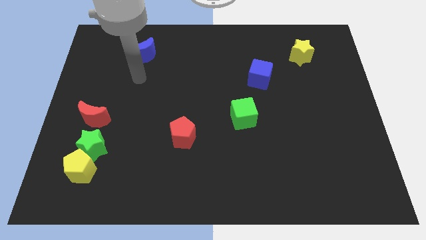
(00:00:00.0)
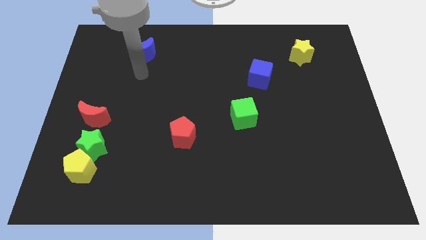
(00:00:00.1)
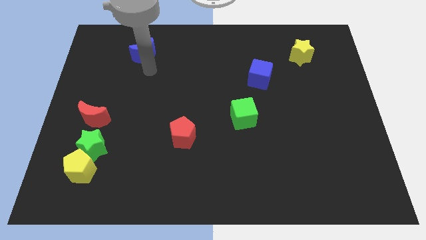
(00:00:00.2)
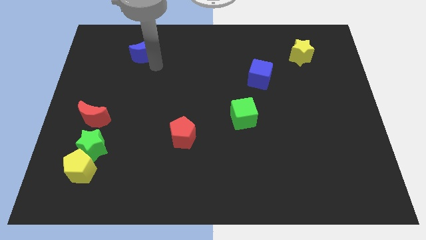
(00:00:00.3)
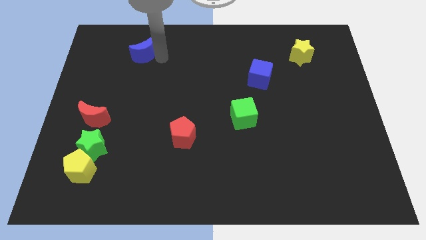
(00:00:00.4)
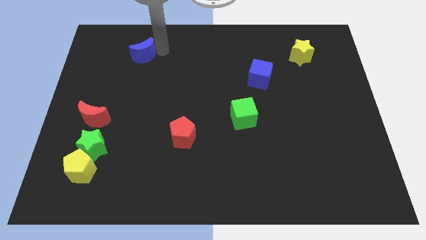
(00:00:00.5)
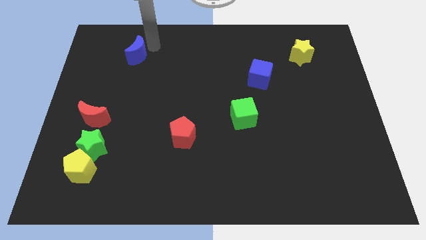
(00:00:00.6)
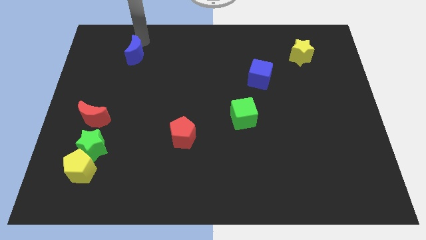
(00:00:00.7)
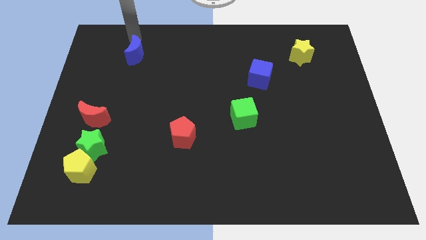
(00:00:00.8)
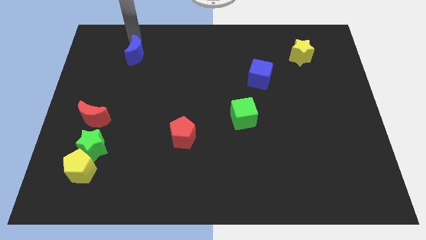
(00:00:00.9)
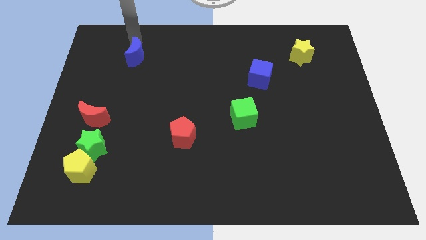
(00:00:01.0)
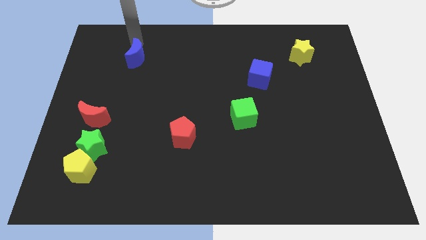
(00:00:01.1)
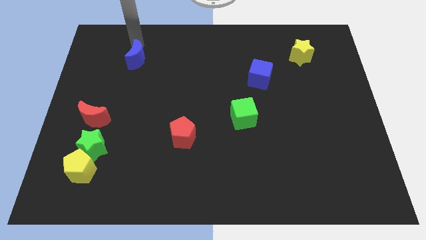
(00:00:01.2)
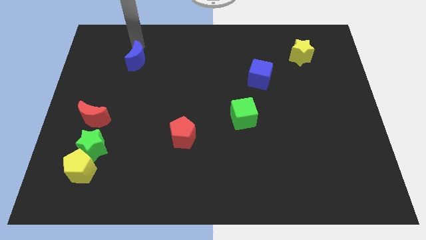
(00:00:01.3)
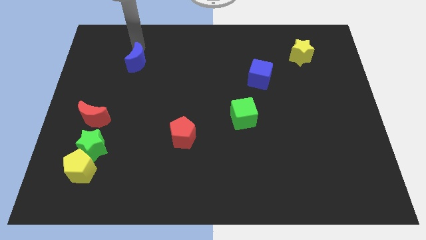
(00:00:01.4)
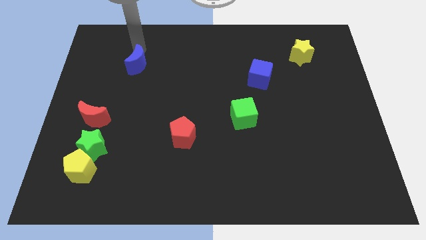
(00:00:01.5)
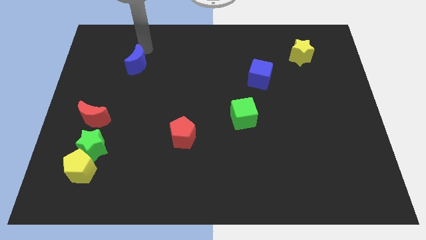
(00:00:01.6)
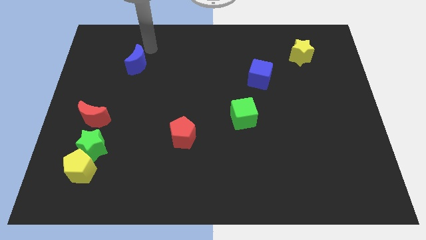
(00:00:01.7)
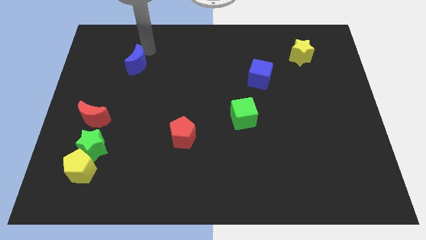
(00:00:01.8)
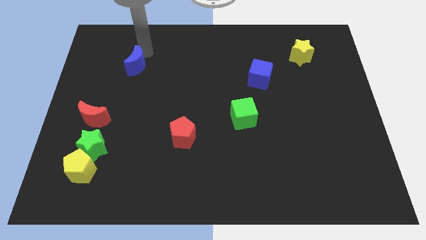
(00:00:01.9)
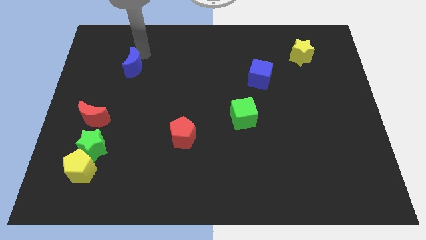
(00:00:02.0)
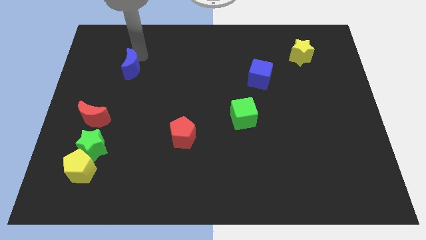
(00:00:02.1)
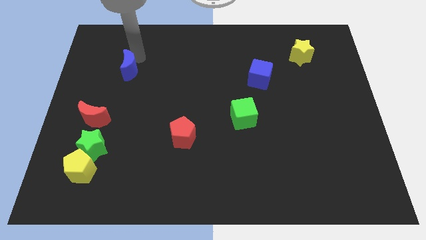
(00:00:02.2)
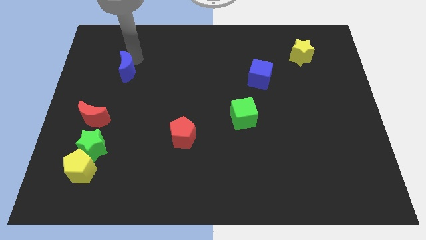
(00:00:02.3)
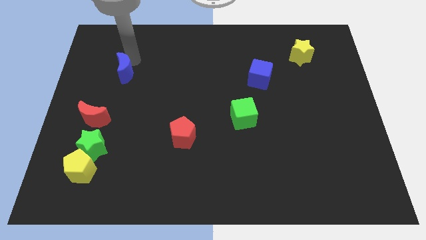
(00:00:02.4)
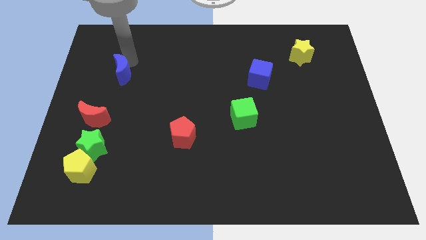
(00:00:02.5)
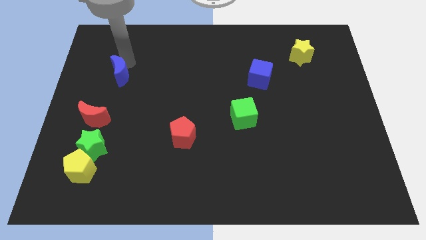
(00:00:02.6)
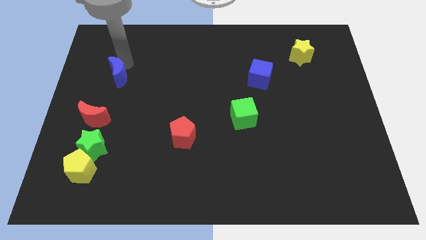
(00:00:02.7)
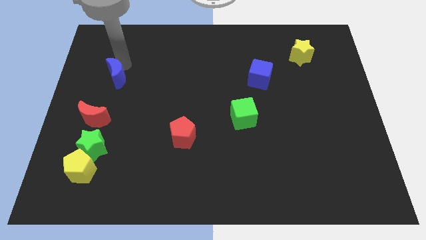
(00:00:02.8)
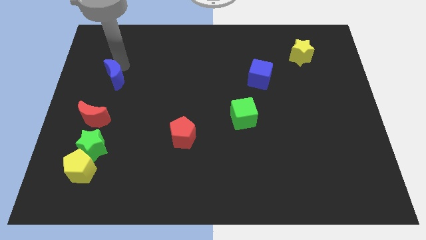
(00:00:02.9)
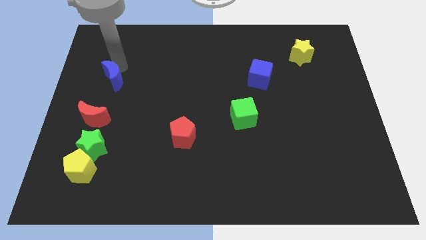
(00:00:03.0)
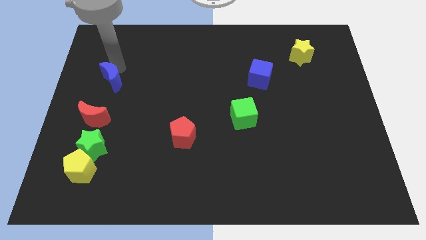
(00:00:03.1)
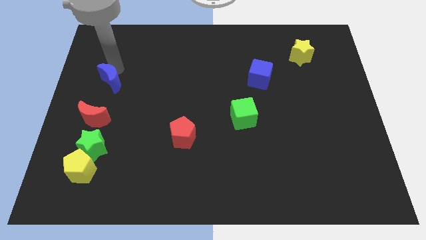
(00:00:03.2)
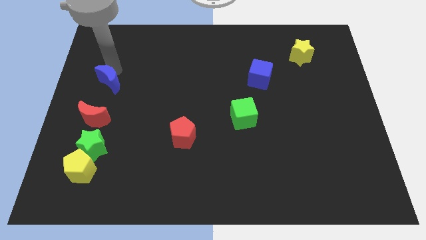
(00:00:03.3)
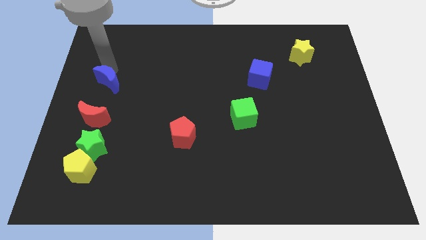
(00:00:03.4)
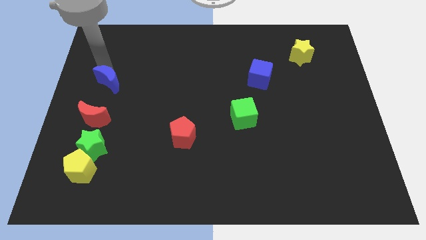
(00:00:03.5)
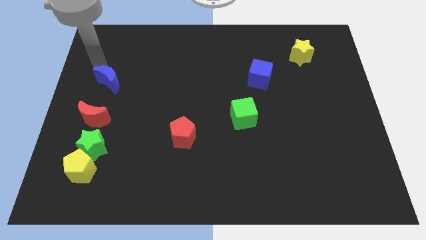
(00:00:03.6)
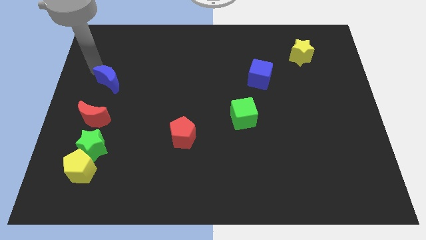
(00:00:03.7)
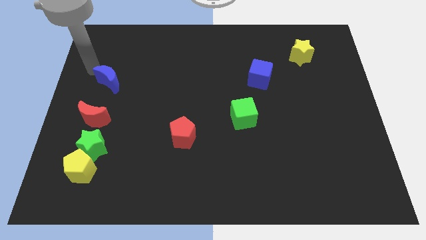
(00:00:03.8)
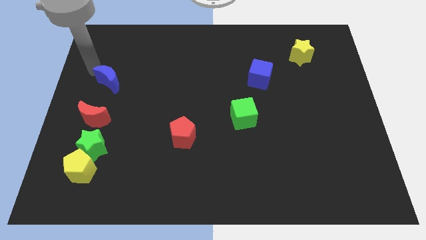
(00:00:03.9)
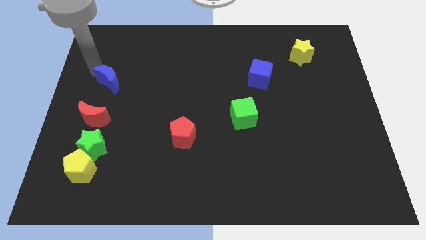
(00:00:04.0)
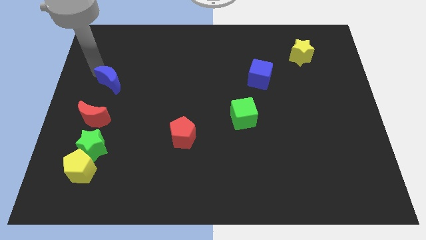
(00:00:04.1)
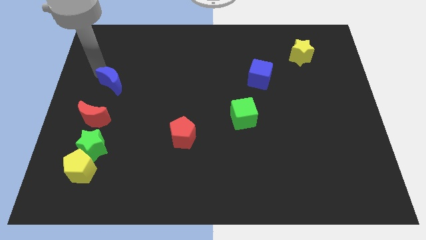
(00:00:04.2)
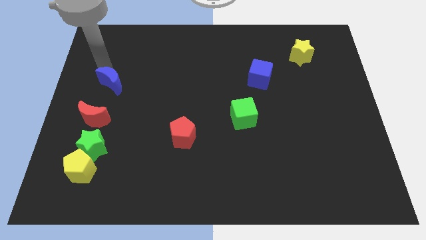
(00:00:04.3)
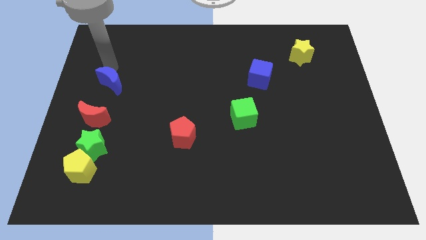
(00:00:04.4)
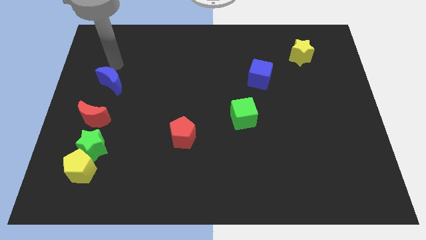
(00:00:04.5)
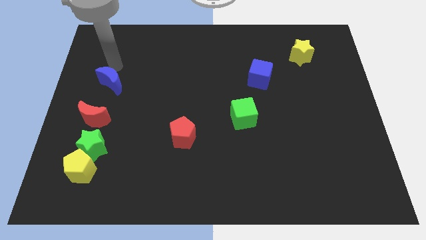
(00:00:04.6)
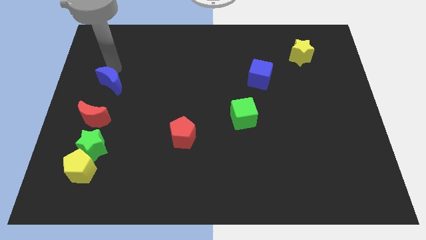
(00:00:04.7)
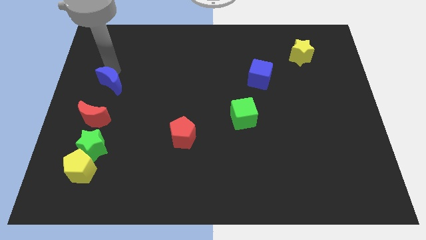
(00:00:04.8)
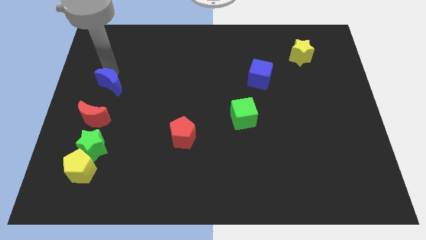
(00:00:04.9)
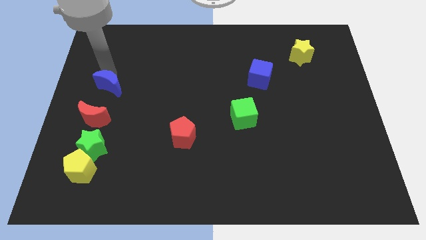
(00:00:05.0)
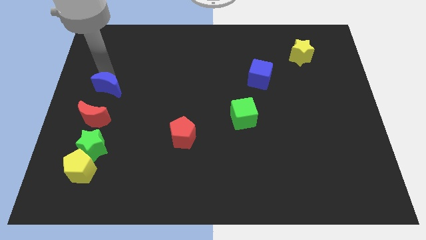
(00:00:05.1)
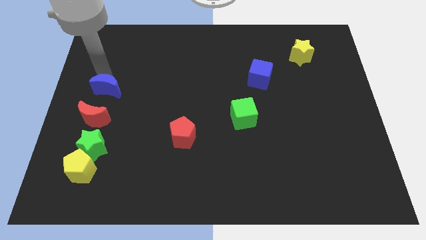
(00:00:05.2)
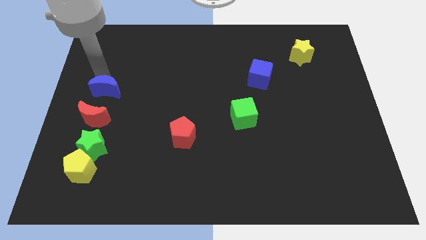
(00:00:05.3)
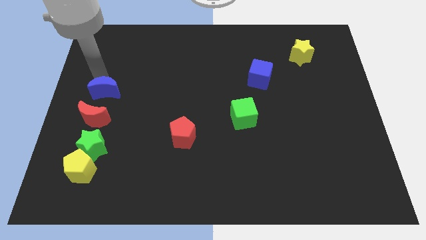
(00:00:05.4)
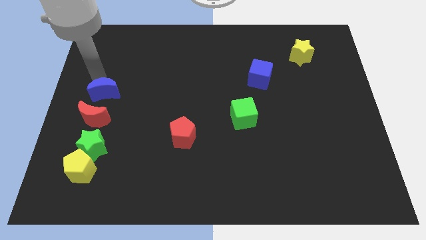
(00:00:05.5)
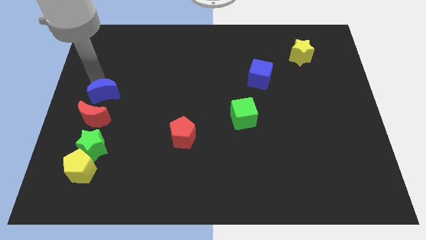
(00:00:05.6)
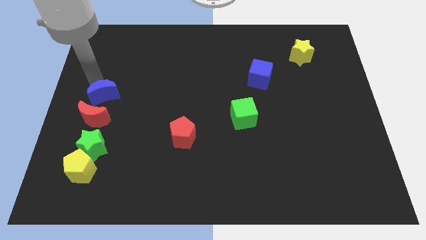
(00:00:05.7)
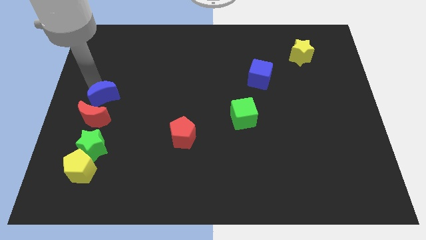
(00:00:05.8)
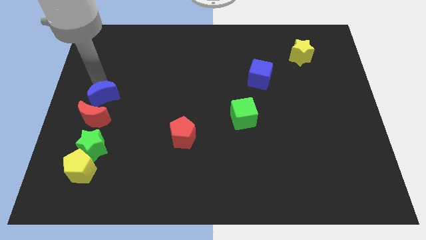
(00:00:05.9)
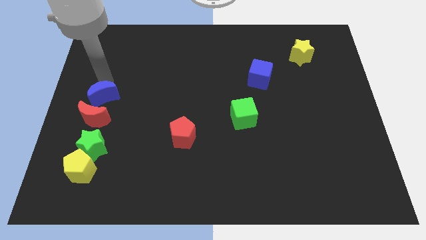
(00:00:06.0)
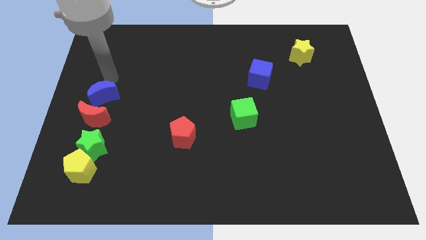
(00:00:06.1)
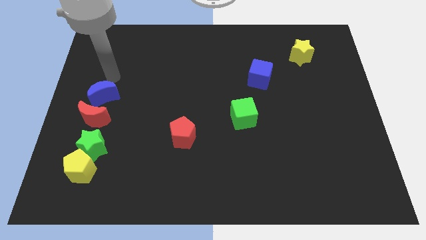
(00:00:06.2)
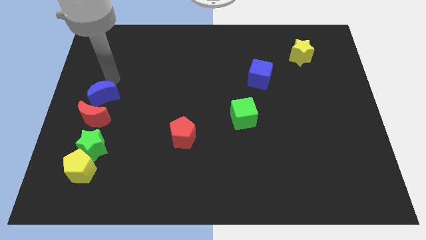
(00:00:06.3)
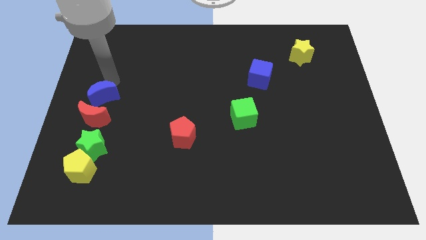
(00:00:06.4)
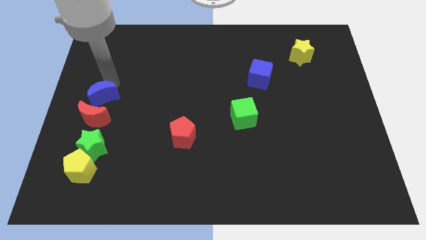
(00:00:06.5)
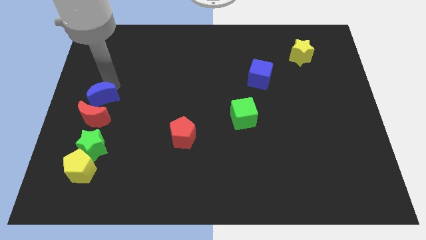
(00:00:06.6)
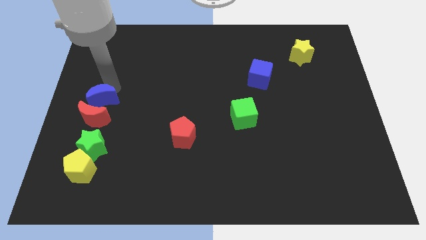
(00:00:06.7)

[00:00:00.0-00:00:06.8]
move the blue moon close to the red moon

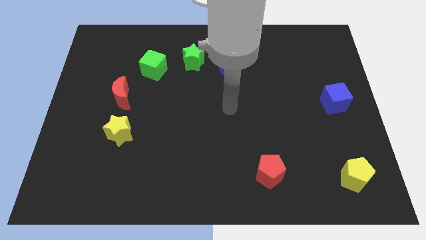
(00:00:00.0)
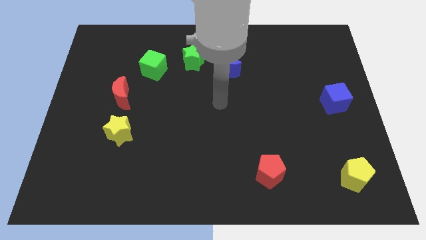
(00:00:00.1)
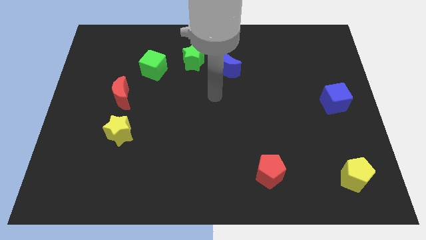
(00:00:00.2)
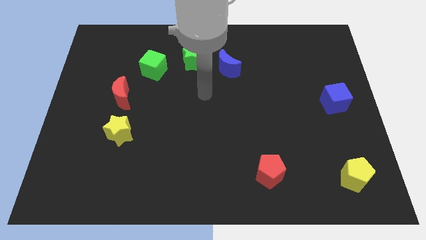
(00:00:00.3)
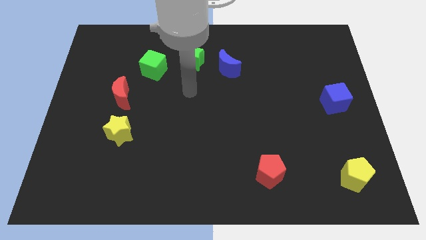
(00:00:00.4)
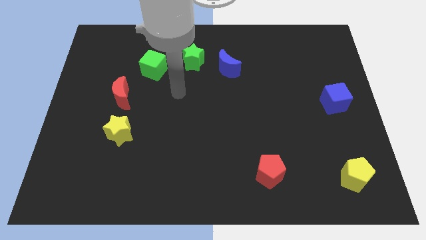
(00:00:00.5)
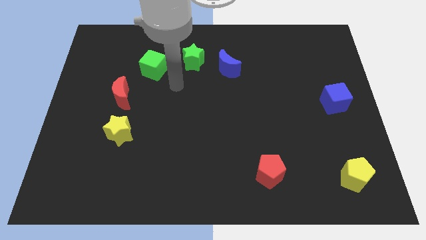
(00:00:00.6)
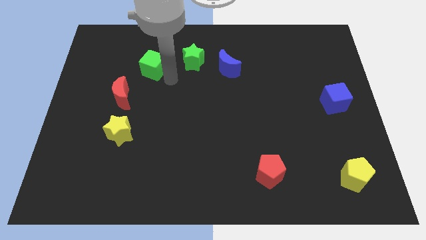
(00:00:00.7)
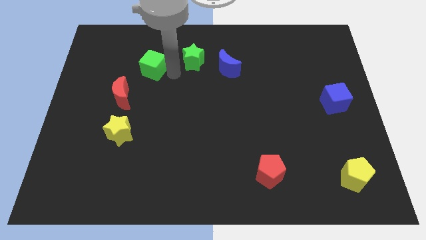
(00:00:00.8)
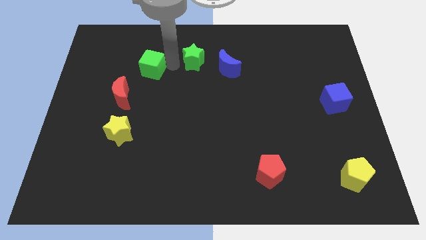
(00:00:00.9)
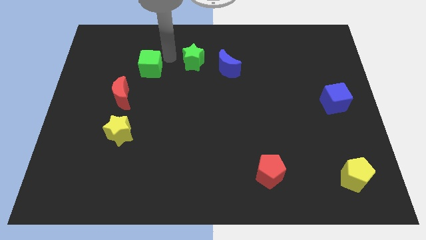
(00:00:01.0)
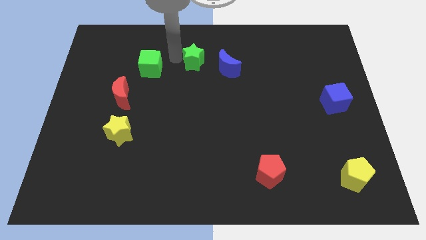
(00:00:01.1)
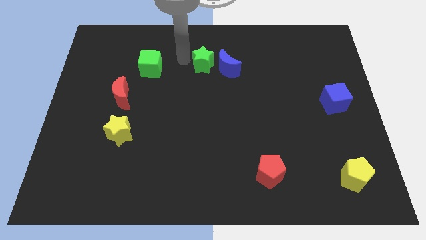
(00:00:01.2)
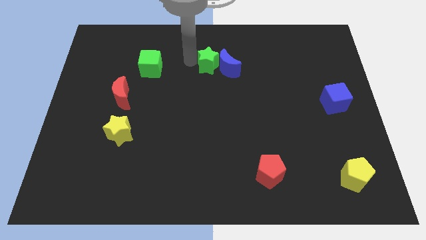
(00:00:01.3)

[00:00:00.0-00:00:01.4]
move the green star to the blue moon
